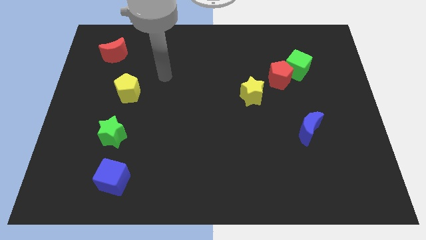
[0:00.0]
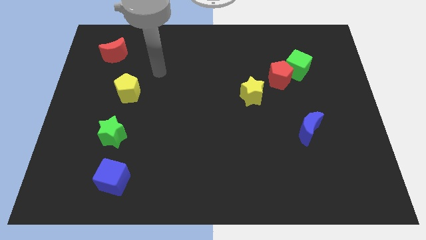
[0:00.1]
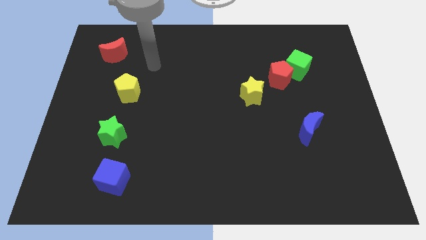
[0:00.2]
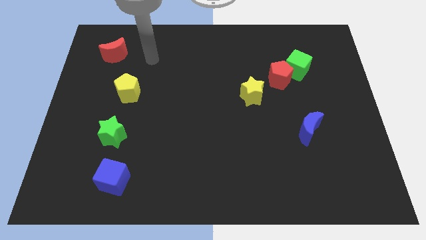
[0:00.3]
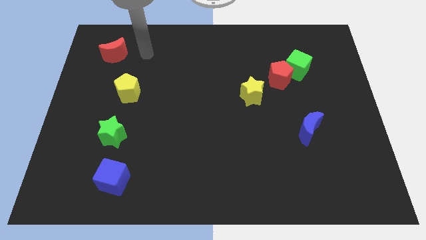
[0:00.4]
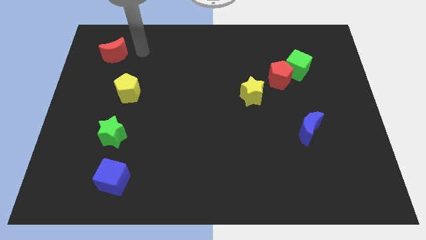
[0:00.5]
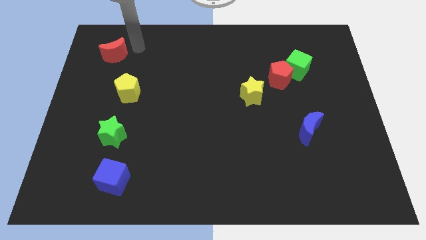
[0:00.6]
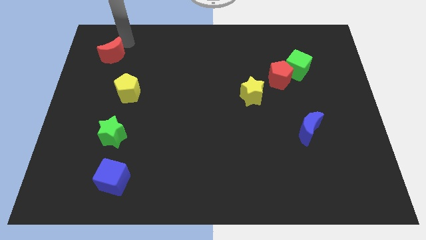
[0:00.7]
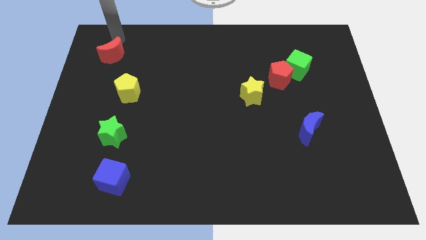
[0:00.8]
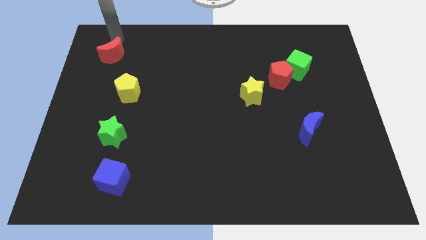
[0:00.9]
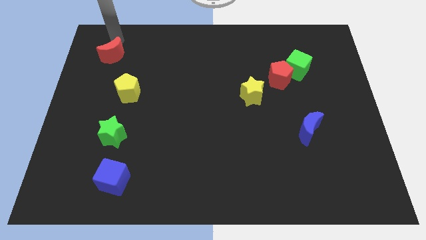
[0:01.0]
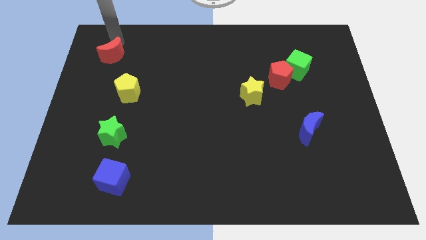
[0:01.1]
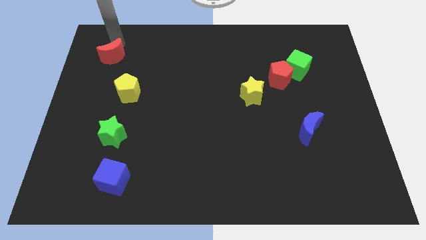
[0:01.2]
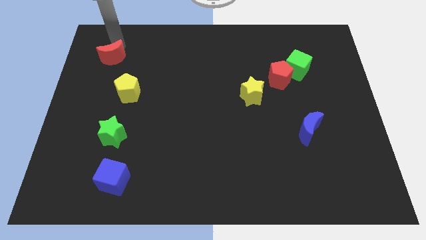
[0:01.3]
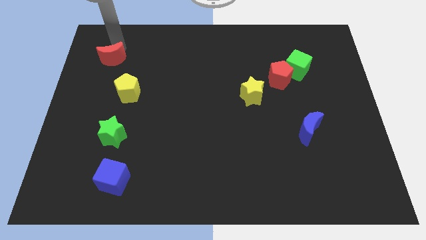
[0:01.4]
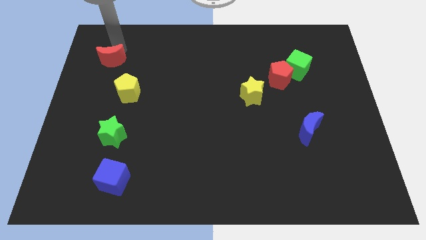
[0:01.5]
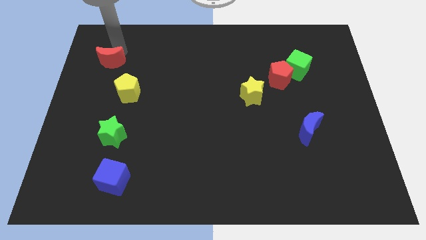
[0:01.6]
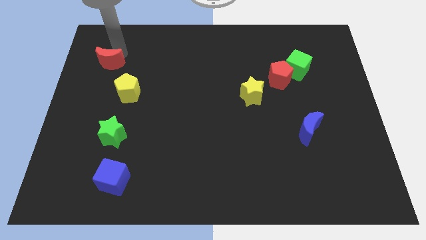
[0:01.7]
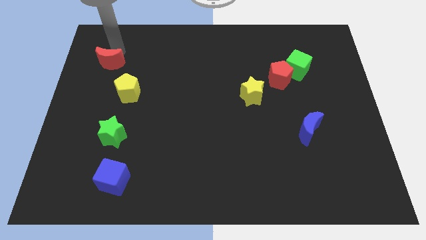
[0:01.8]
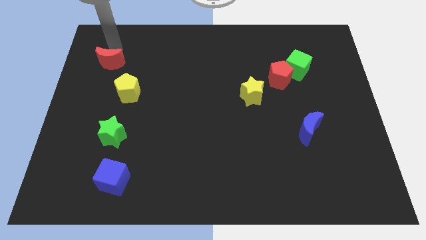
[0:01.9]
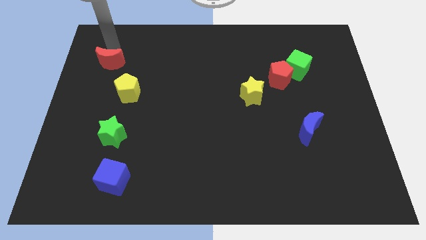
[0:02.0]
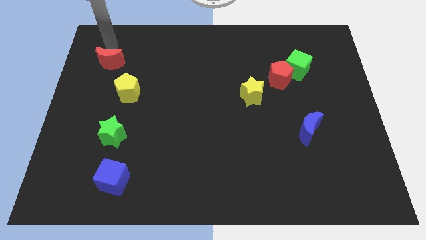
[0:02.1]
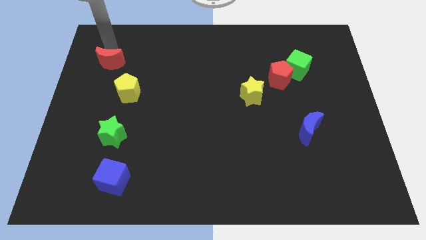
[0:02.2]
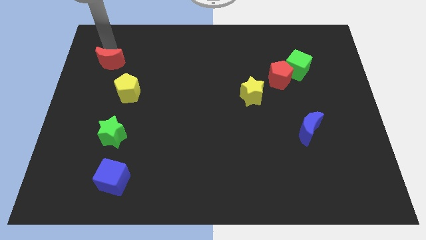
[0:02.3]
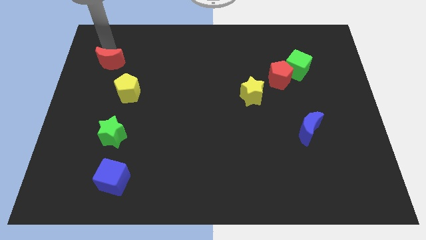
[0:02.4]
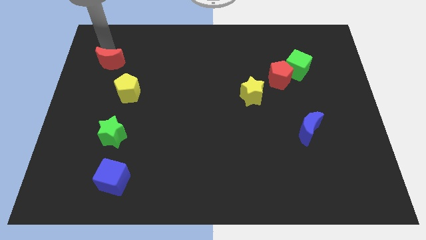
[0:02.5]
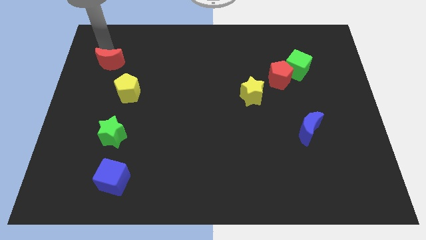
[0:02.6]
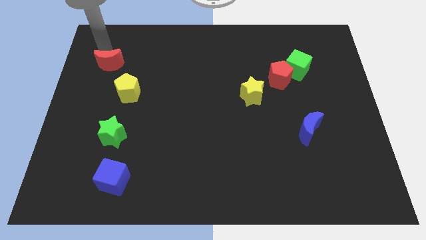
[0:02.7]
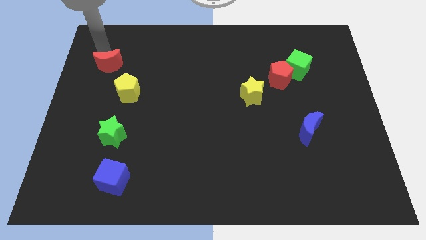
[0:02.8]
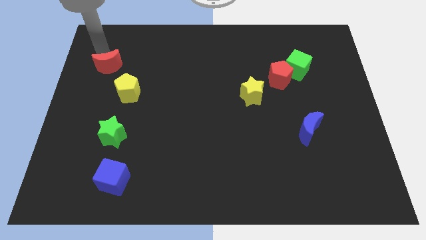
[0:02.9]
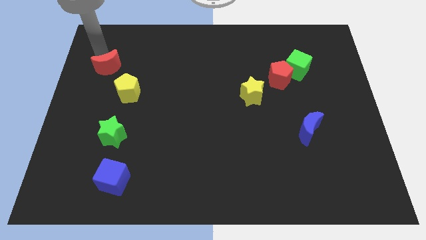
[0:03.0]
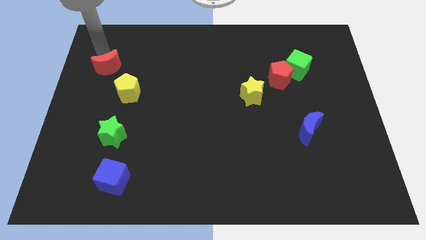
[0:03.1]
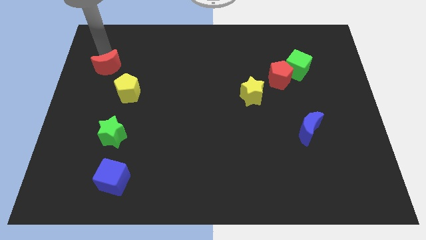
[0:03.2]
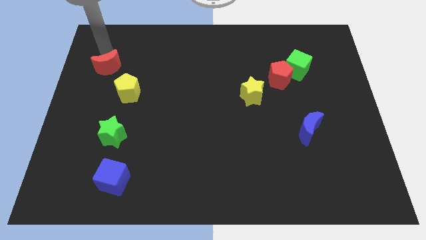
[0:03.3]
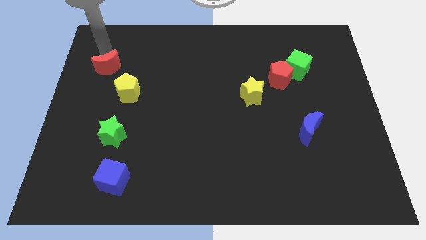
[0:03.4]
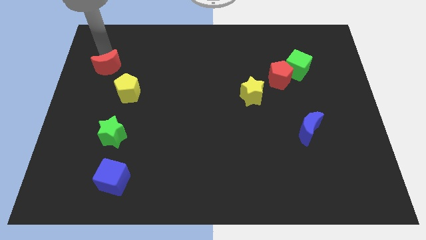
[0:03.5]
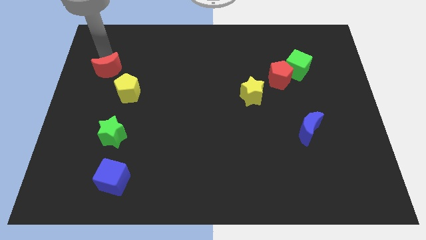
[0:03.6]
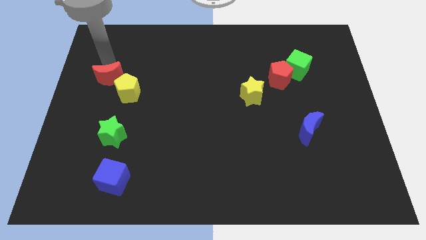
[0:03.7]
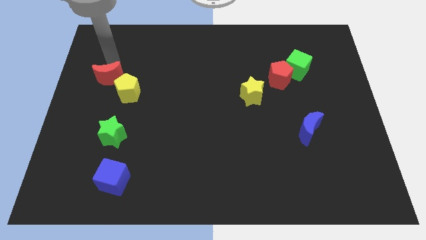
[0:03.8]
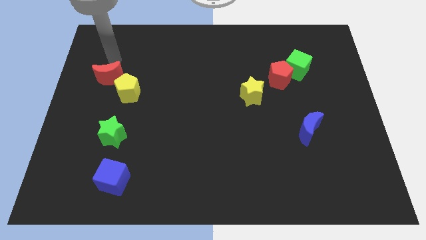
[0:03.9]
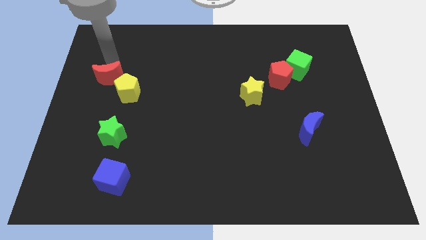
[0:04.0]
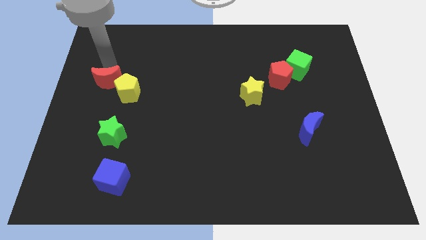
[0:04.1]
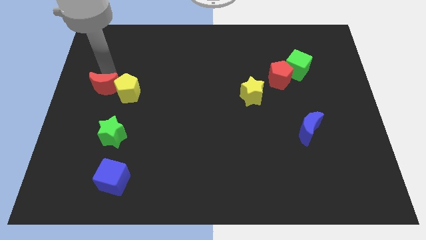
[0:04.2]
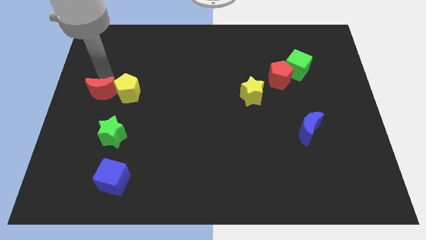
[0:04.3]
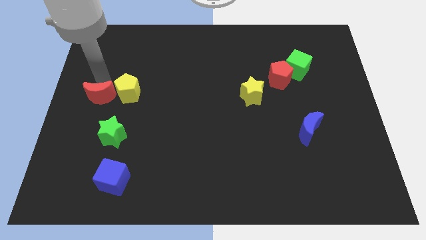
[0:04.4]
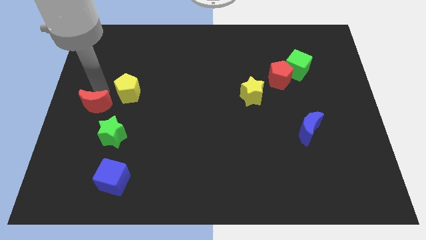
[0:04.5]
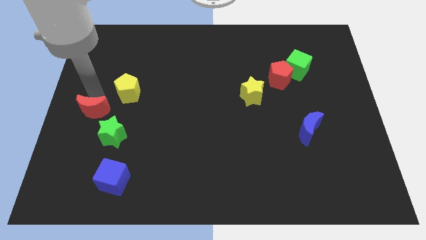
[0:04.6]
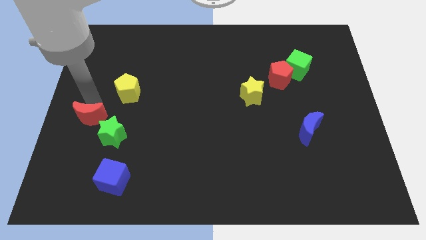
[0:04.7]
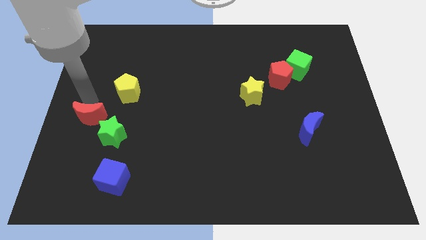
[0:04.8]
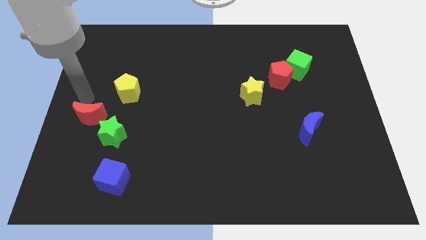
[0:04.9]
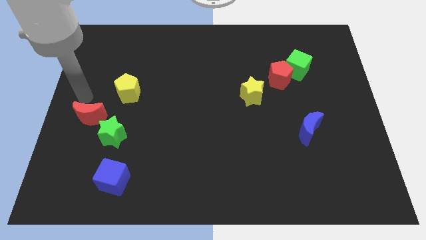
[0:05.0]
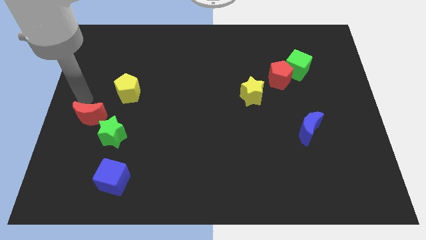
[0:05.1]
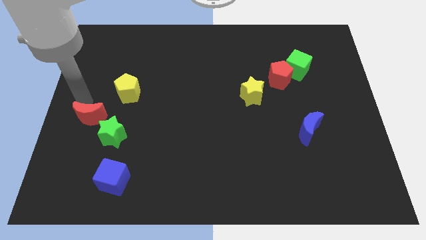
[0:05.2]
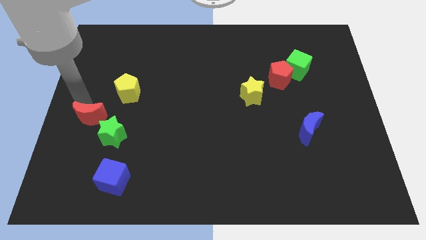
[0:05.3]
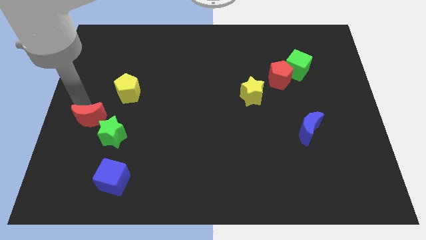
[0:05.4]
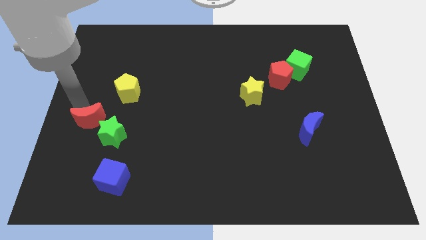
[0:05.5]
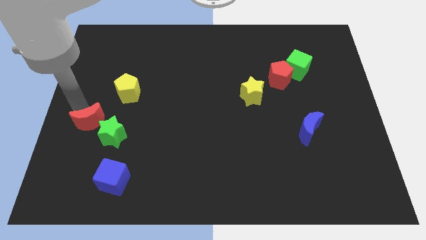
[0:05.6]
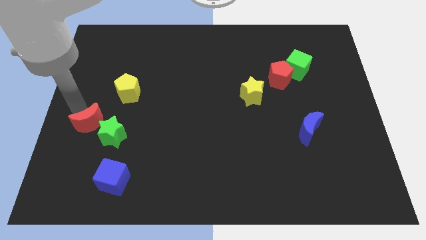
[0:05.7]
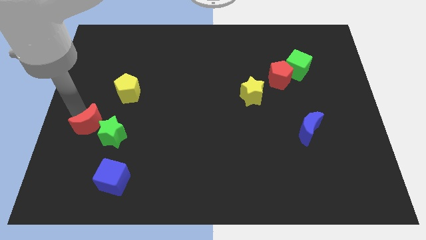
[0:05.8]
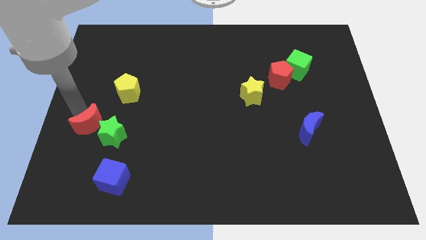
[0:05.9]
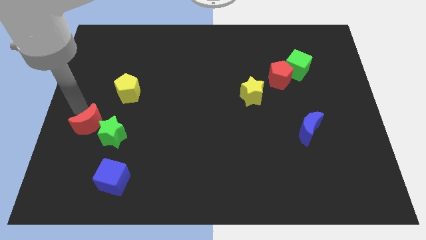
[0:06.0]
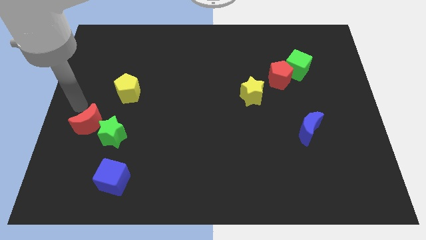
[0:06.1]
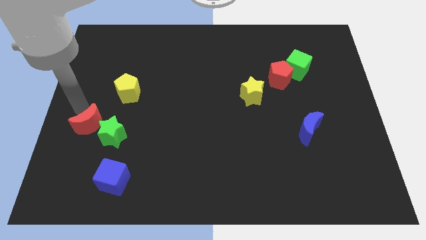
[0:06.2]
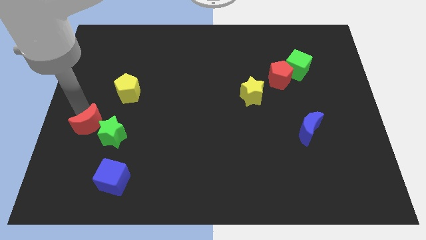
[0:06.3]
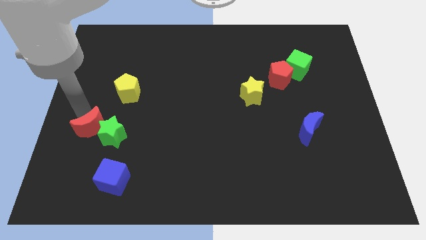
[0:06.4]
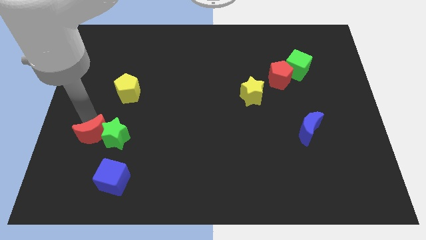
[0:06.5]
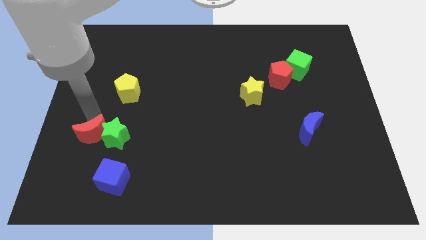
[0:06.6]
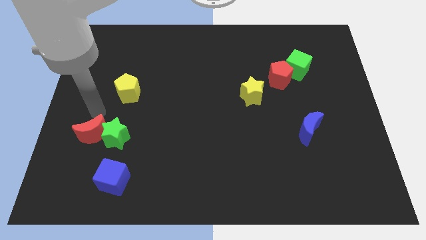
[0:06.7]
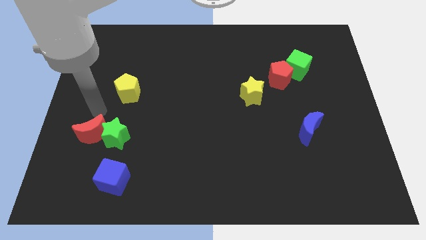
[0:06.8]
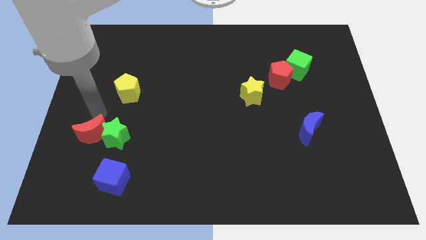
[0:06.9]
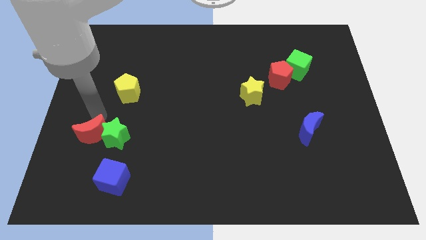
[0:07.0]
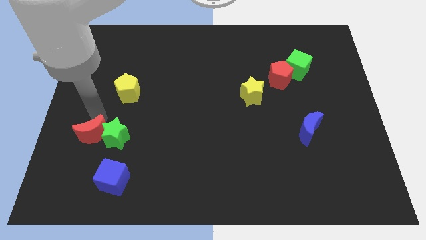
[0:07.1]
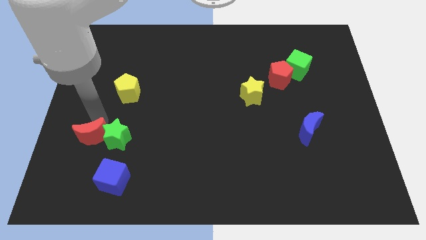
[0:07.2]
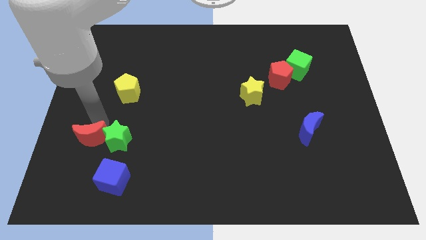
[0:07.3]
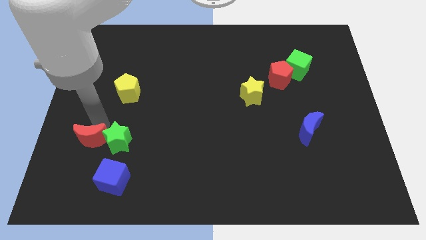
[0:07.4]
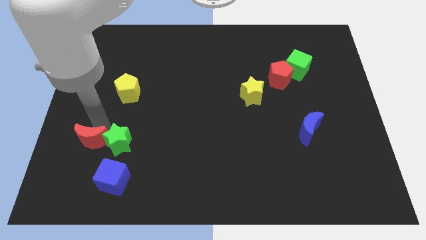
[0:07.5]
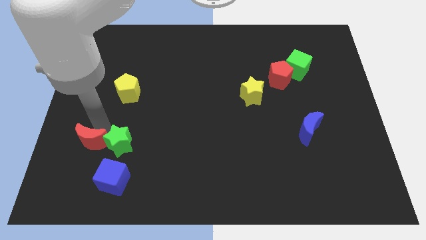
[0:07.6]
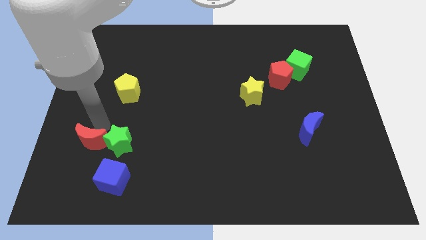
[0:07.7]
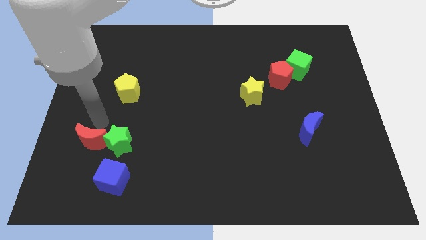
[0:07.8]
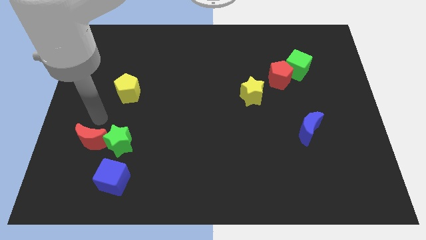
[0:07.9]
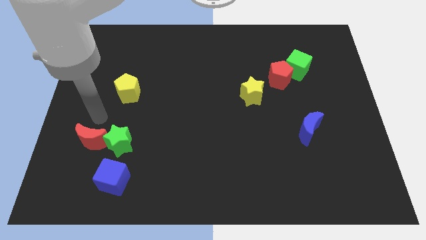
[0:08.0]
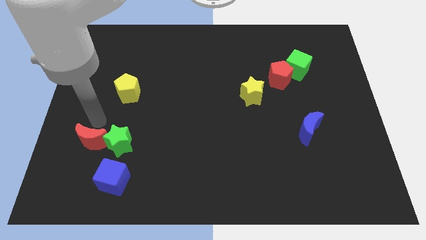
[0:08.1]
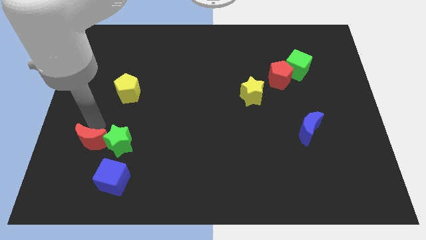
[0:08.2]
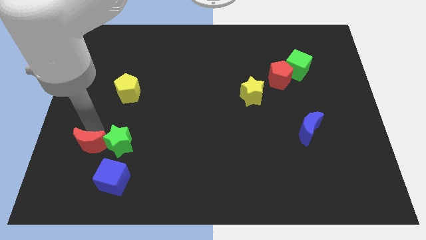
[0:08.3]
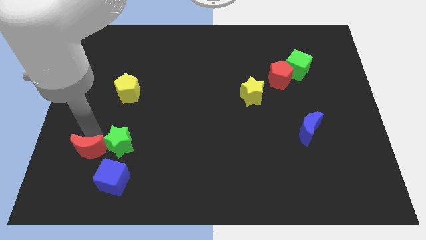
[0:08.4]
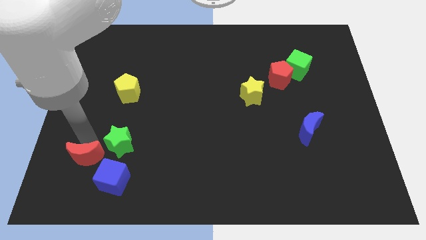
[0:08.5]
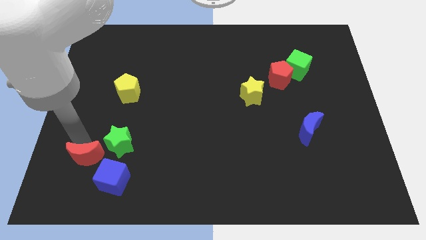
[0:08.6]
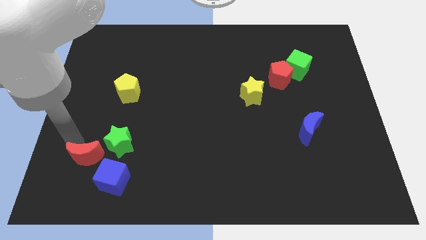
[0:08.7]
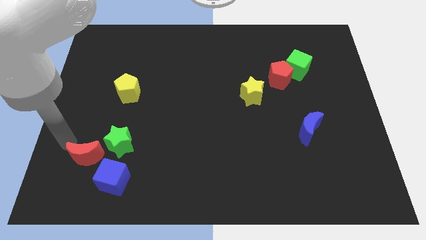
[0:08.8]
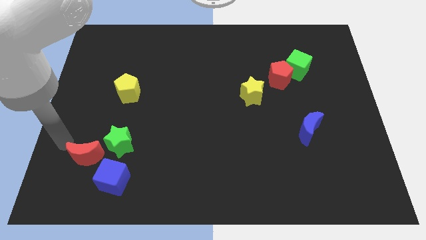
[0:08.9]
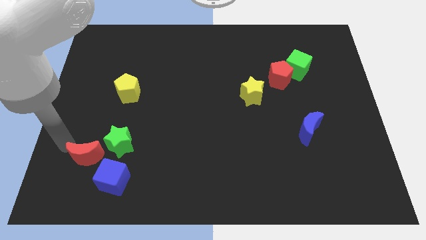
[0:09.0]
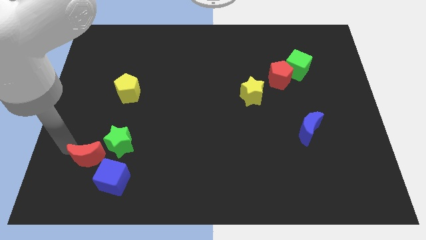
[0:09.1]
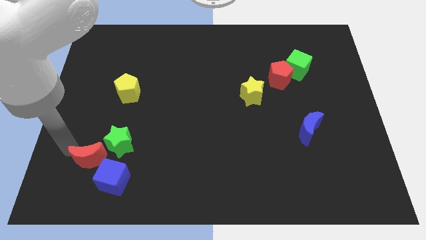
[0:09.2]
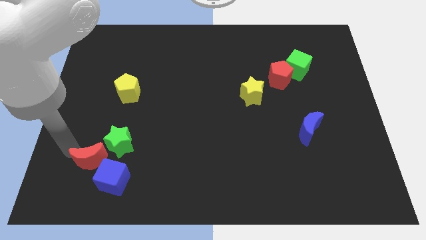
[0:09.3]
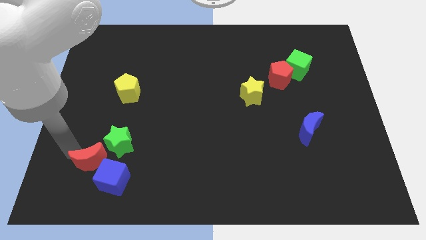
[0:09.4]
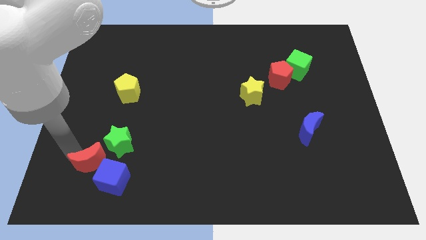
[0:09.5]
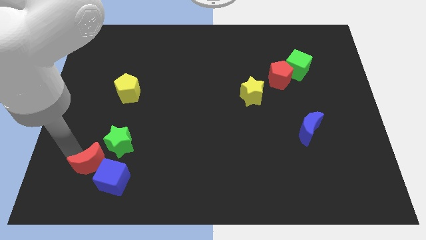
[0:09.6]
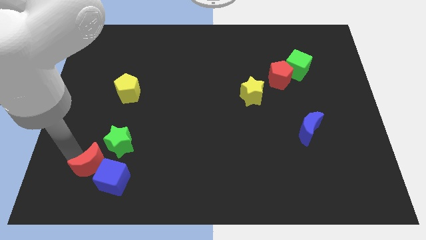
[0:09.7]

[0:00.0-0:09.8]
slide the red moon to the blue cube
